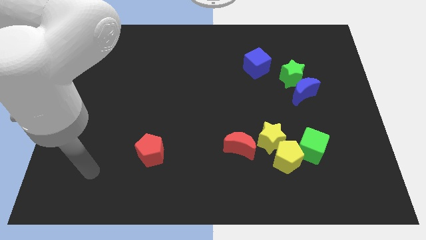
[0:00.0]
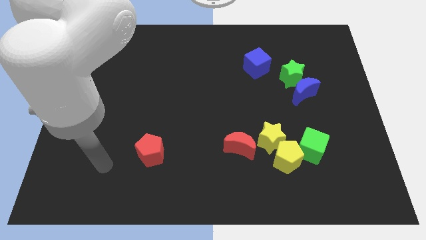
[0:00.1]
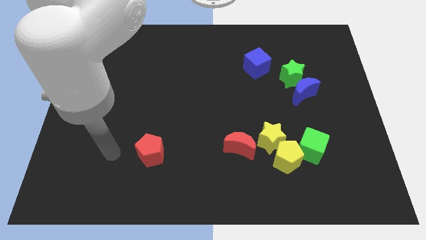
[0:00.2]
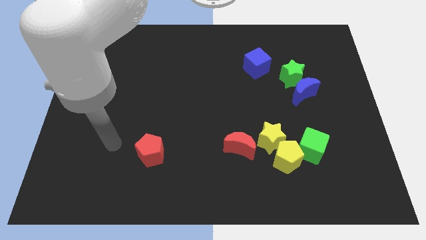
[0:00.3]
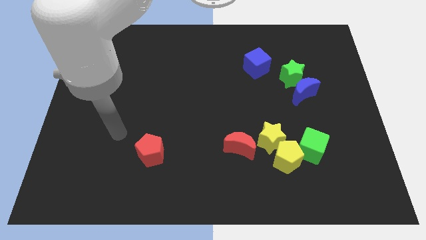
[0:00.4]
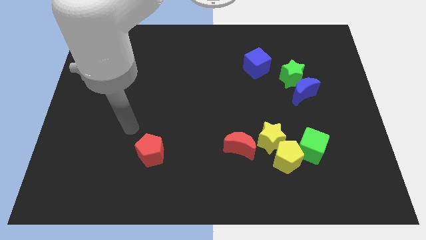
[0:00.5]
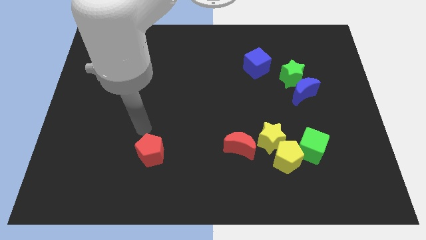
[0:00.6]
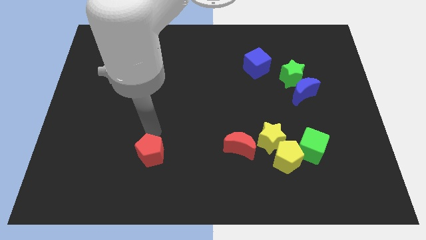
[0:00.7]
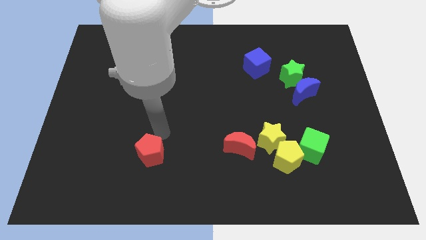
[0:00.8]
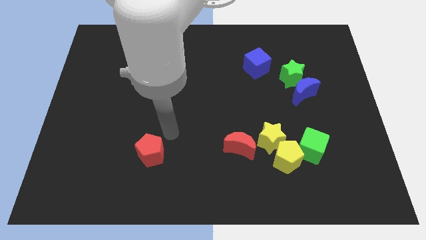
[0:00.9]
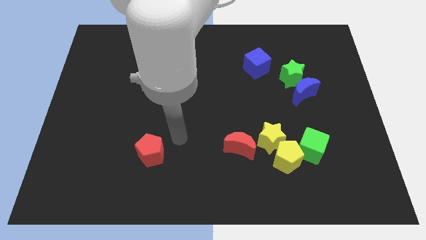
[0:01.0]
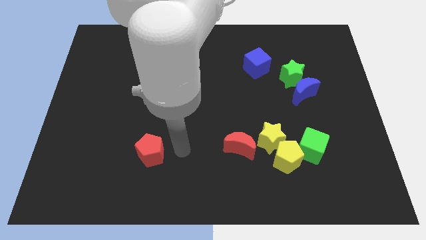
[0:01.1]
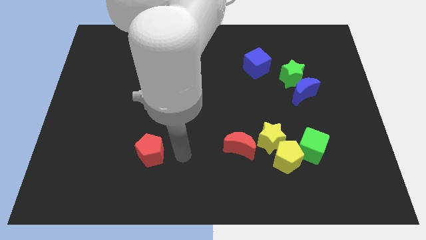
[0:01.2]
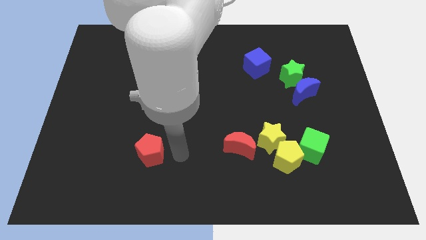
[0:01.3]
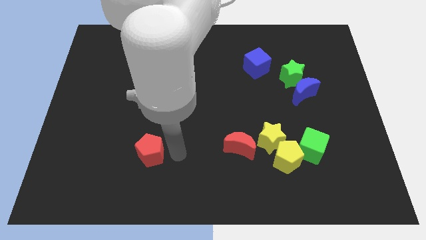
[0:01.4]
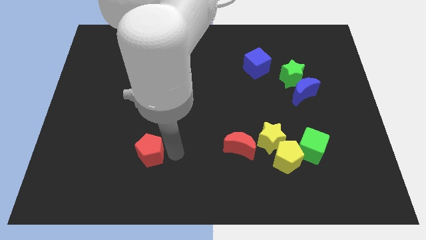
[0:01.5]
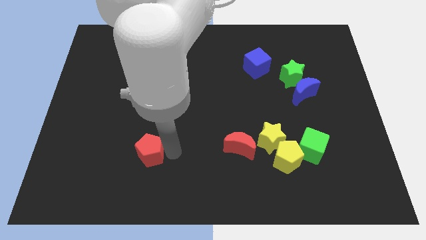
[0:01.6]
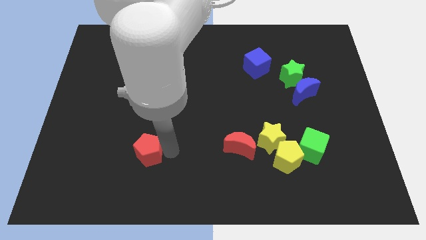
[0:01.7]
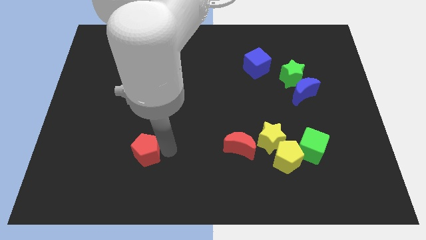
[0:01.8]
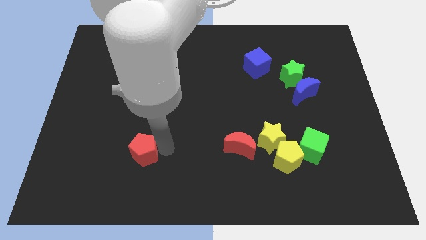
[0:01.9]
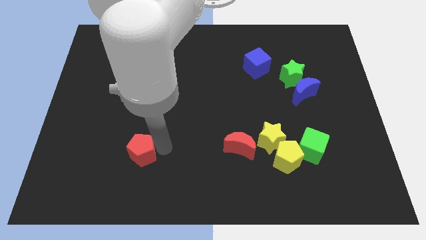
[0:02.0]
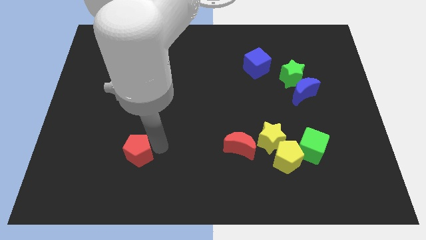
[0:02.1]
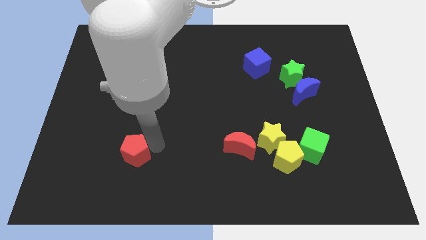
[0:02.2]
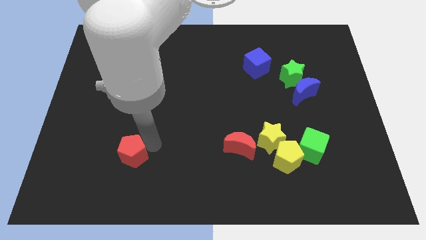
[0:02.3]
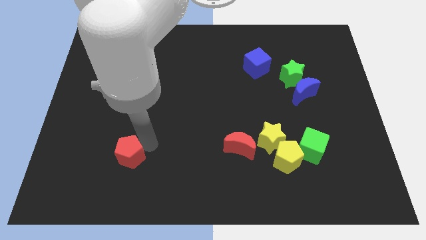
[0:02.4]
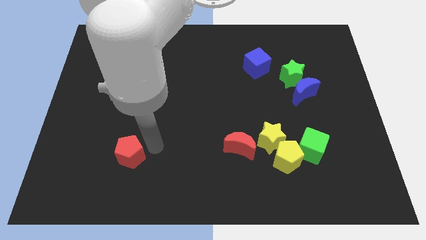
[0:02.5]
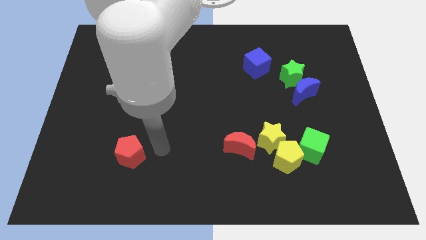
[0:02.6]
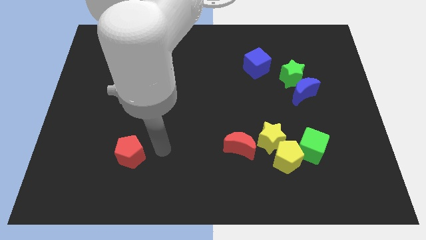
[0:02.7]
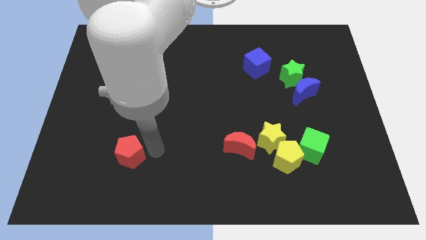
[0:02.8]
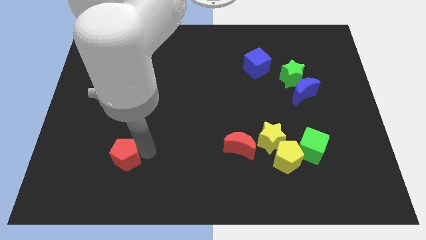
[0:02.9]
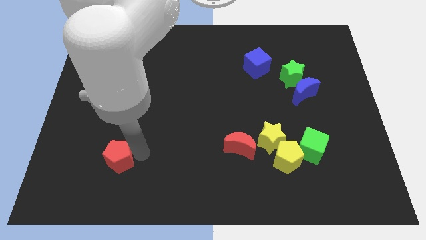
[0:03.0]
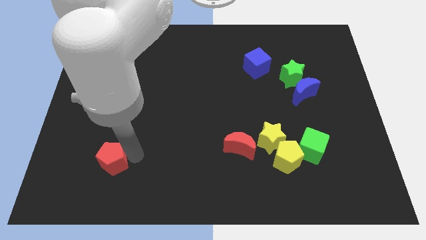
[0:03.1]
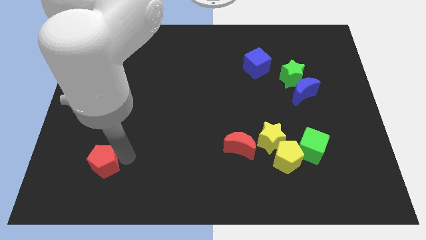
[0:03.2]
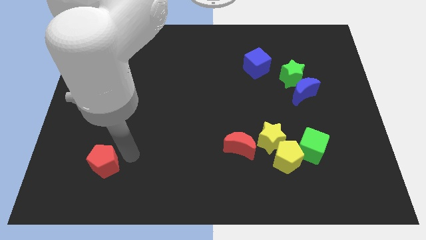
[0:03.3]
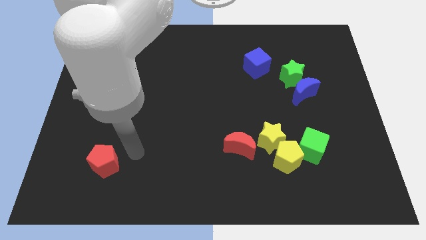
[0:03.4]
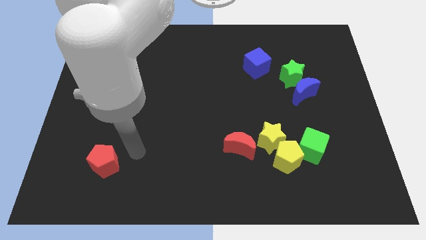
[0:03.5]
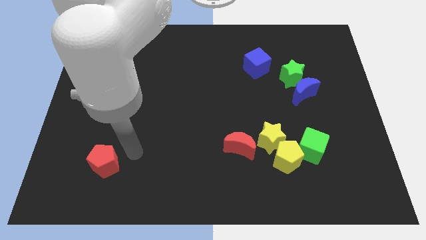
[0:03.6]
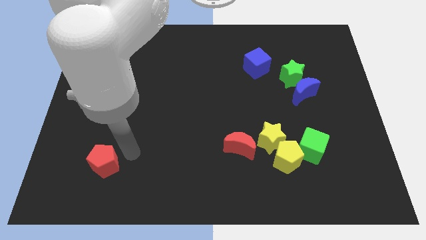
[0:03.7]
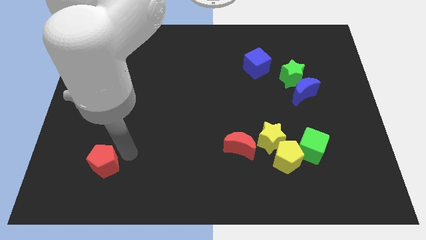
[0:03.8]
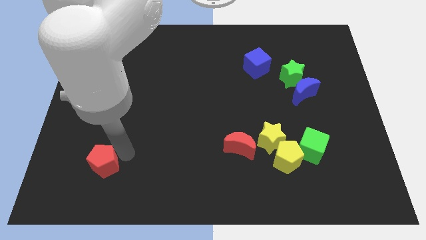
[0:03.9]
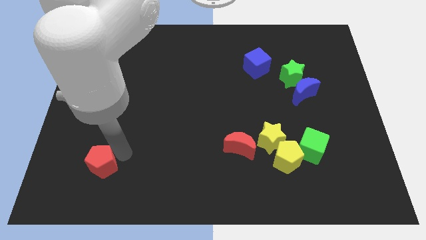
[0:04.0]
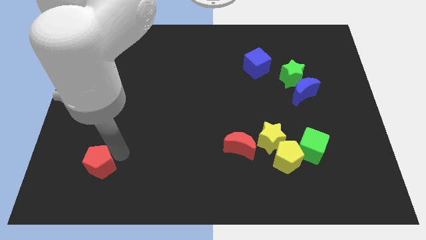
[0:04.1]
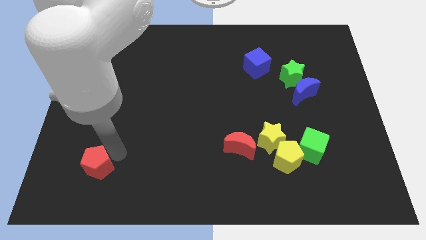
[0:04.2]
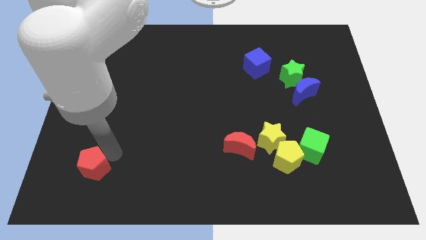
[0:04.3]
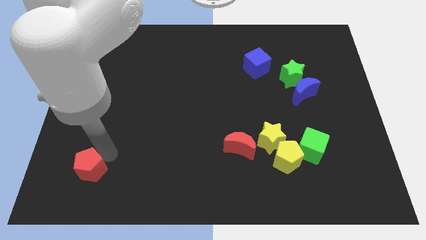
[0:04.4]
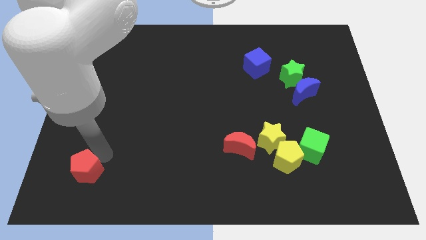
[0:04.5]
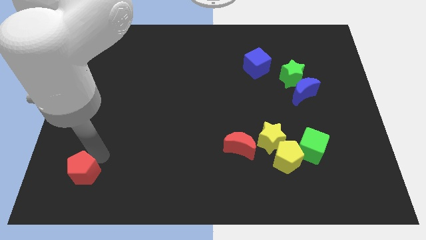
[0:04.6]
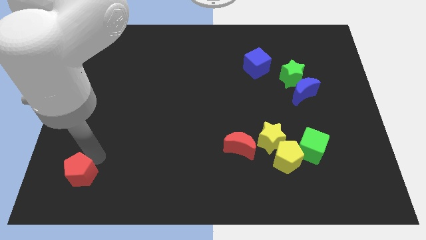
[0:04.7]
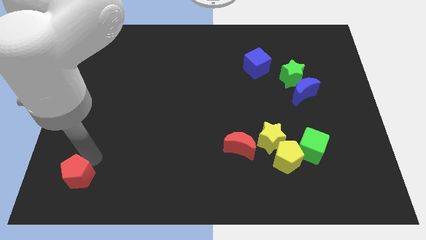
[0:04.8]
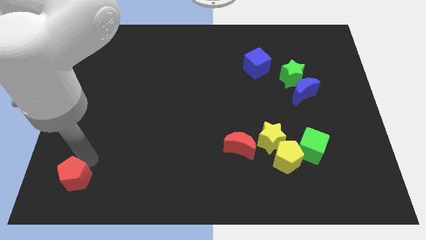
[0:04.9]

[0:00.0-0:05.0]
push the red pentagon to the lower left corner

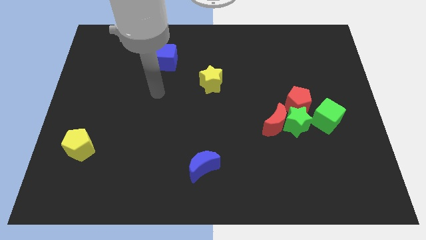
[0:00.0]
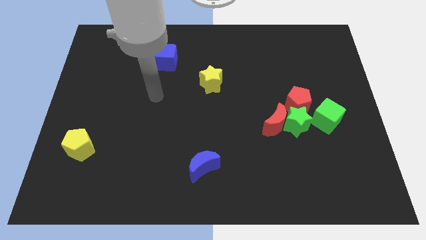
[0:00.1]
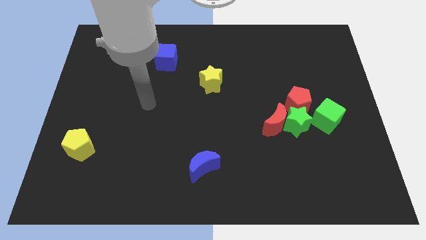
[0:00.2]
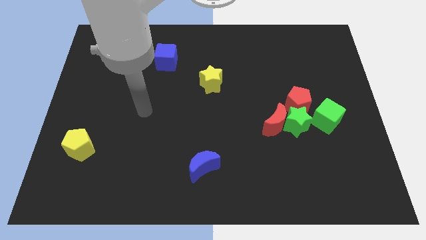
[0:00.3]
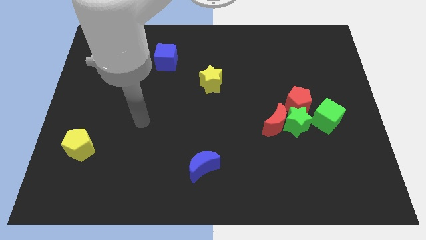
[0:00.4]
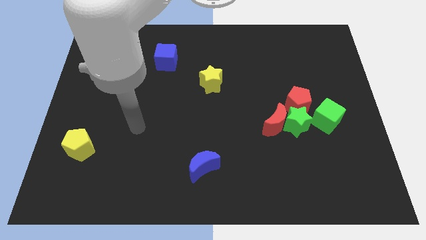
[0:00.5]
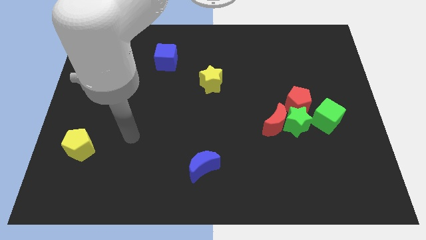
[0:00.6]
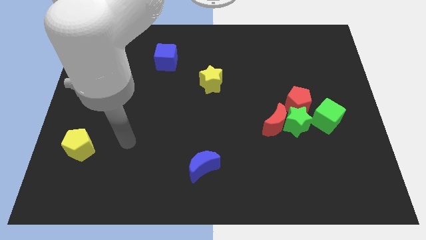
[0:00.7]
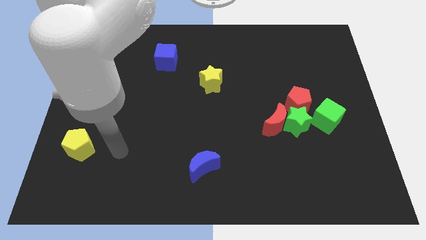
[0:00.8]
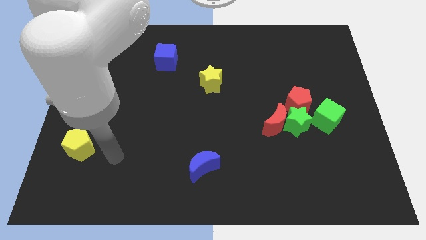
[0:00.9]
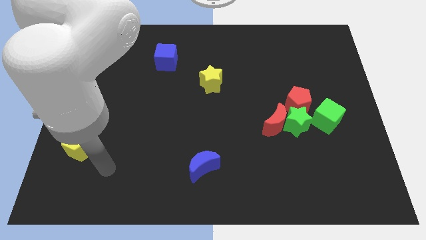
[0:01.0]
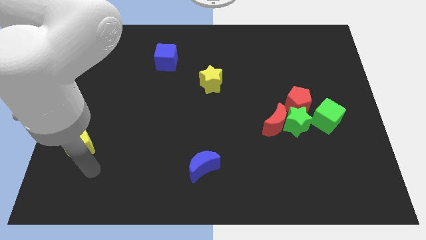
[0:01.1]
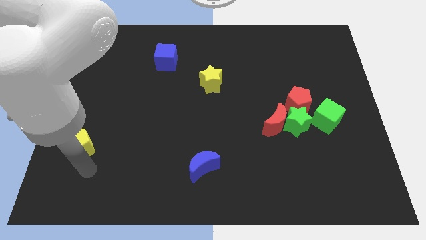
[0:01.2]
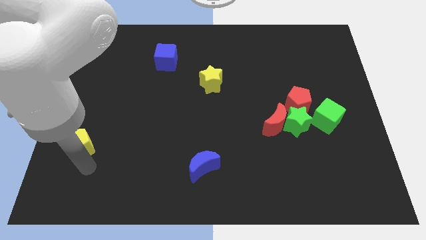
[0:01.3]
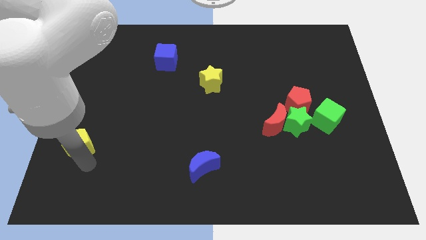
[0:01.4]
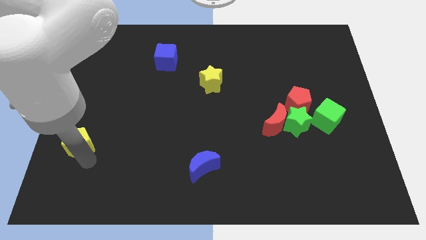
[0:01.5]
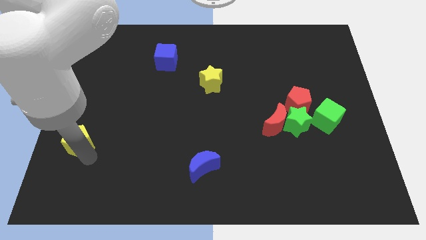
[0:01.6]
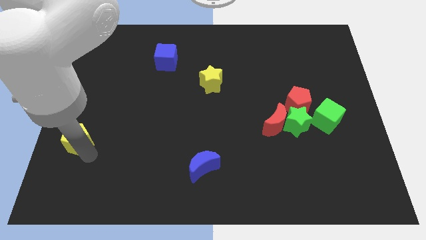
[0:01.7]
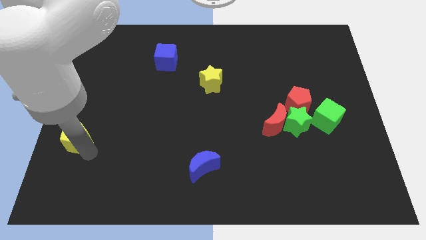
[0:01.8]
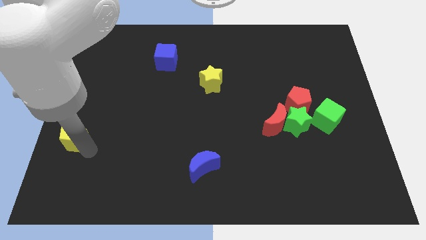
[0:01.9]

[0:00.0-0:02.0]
push the yellow pentagon to the center left

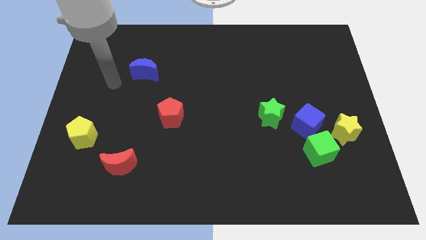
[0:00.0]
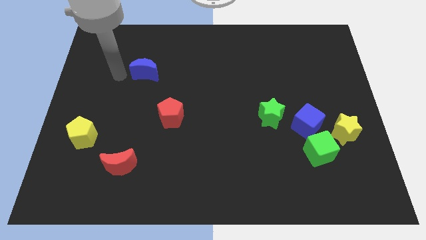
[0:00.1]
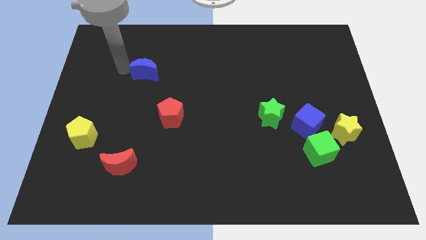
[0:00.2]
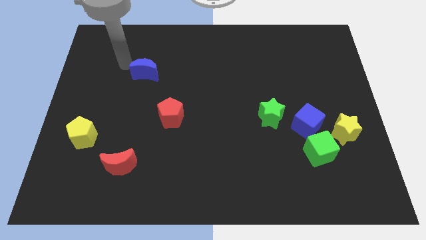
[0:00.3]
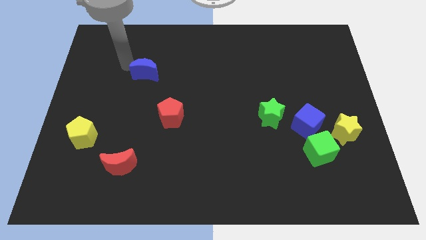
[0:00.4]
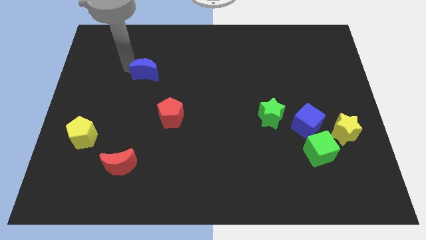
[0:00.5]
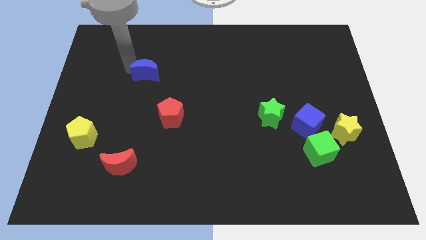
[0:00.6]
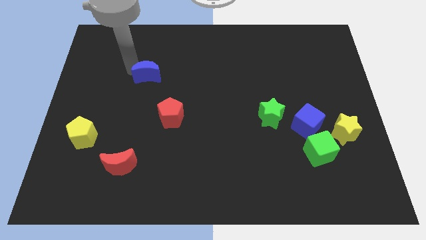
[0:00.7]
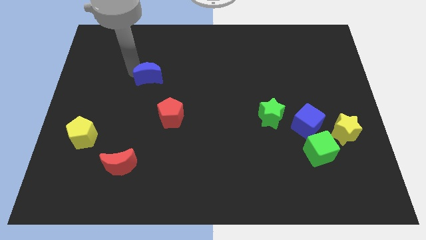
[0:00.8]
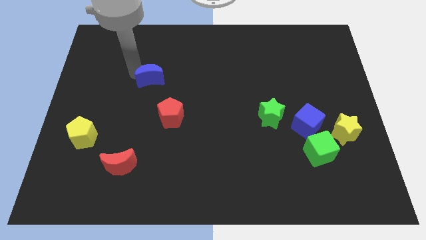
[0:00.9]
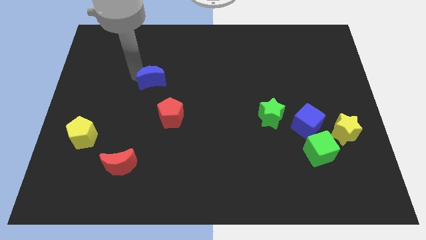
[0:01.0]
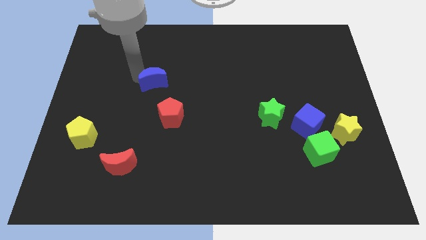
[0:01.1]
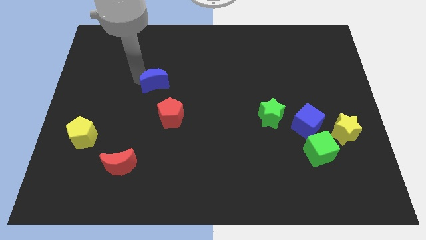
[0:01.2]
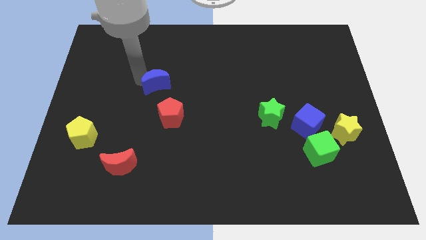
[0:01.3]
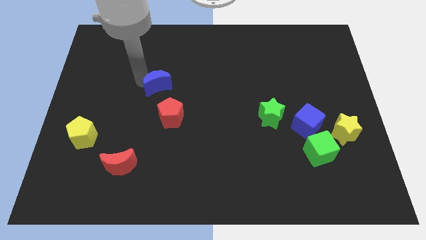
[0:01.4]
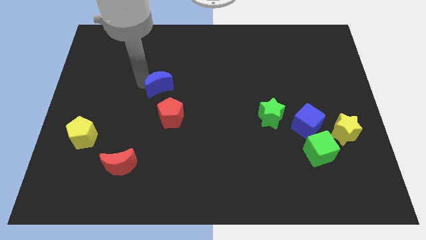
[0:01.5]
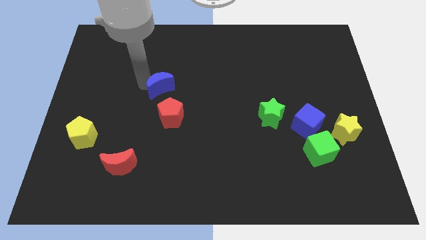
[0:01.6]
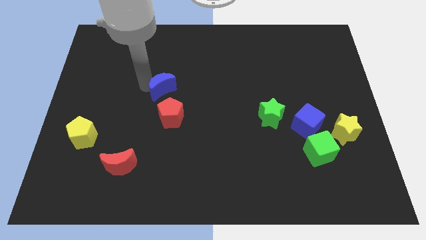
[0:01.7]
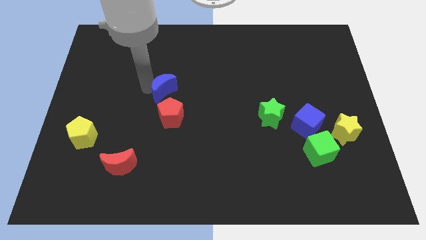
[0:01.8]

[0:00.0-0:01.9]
put the blue moon to the center of the board
